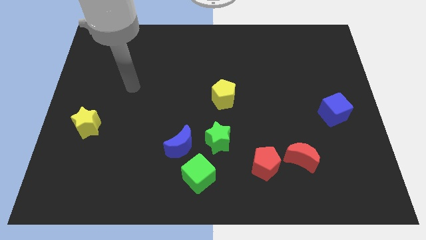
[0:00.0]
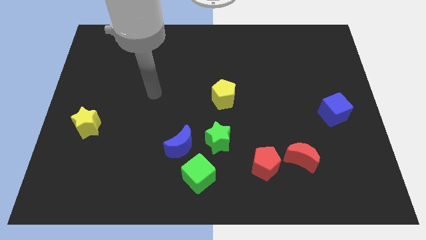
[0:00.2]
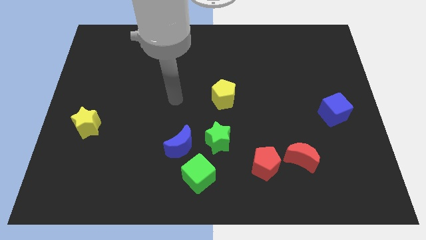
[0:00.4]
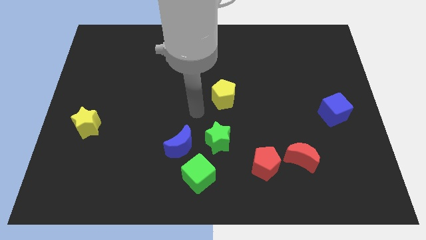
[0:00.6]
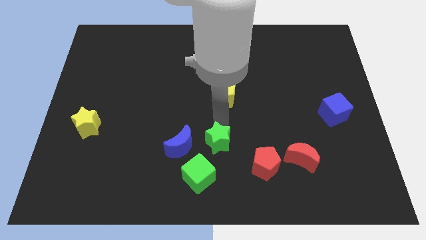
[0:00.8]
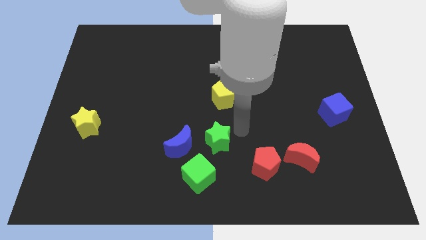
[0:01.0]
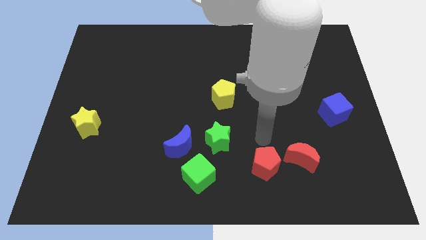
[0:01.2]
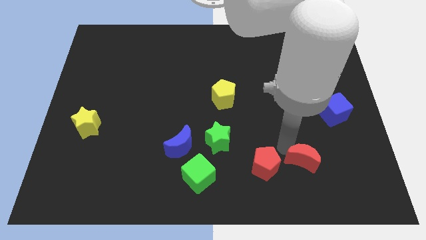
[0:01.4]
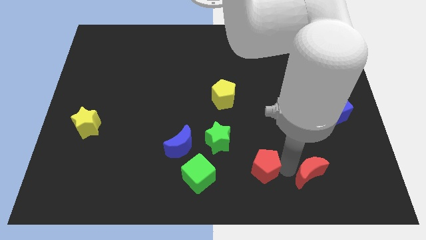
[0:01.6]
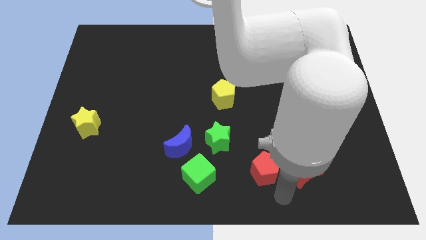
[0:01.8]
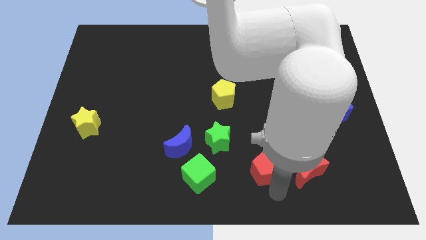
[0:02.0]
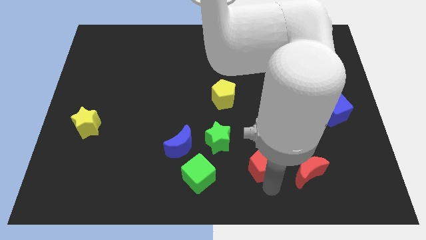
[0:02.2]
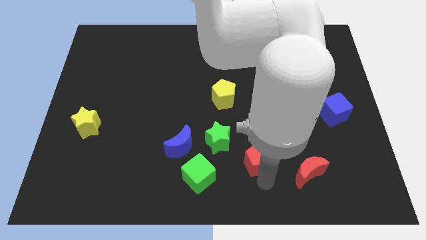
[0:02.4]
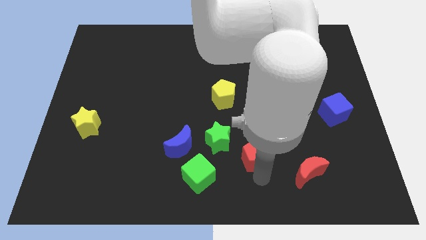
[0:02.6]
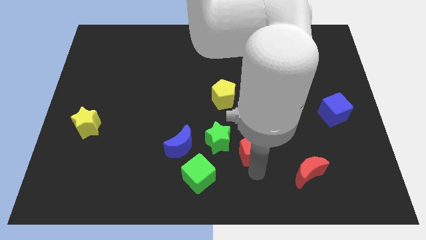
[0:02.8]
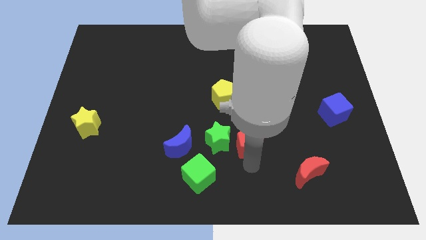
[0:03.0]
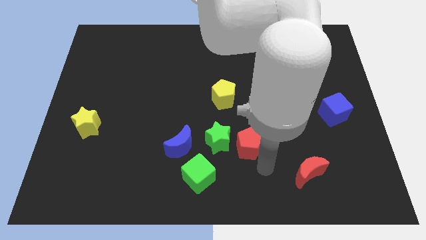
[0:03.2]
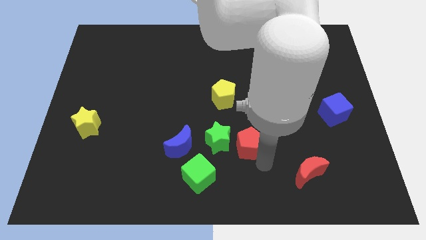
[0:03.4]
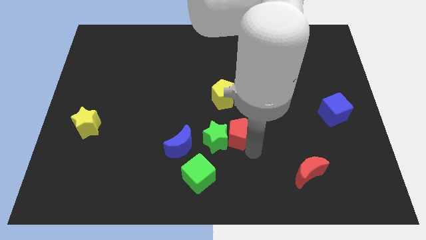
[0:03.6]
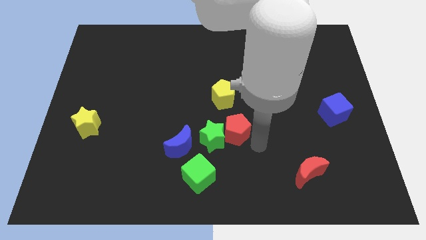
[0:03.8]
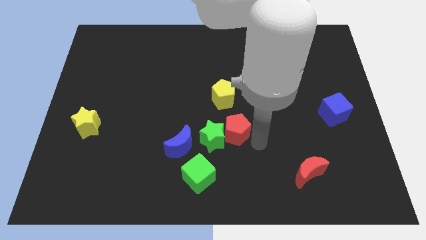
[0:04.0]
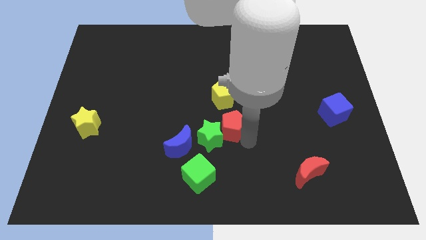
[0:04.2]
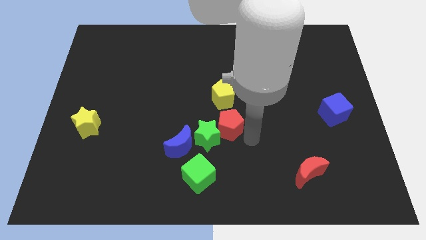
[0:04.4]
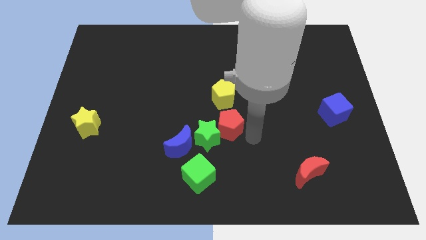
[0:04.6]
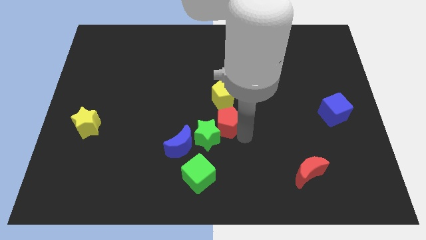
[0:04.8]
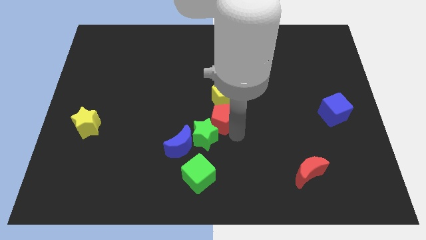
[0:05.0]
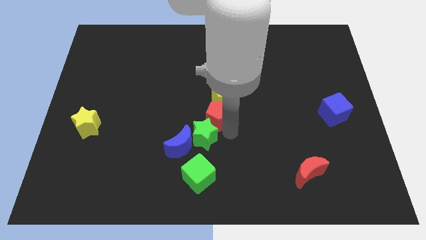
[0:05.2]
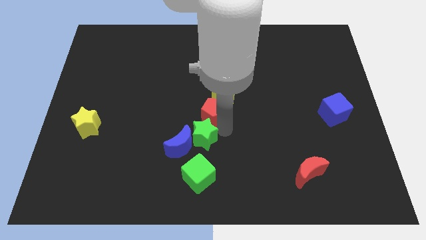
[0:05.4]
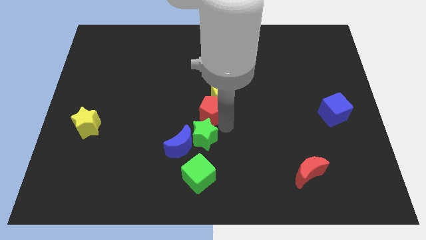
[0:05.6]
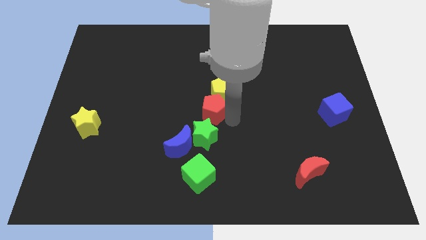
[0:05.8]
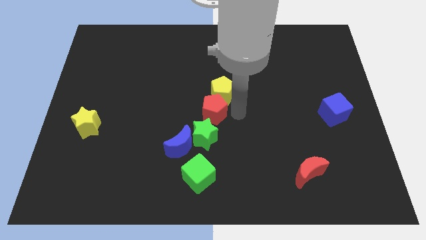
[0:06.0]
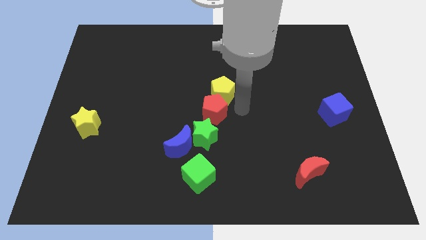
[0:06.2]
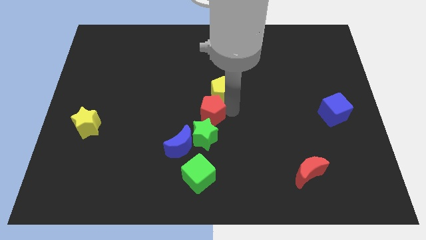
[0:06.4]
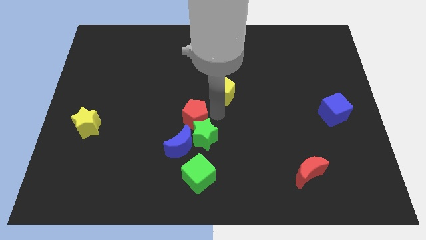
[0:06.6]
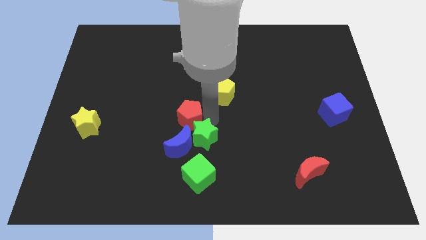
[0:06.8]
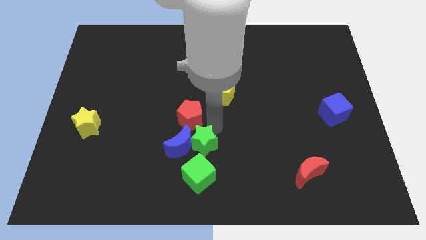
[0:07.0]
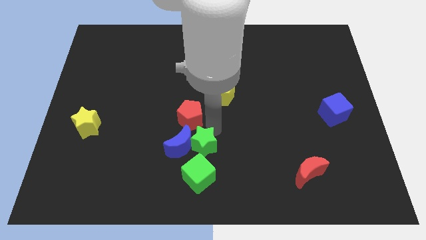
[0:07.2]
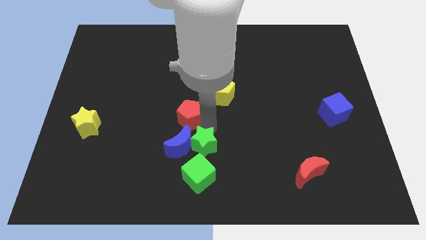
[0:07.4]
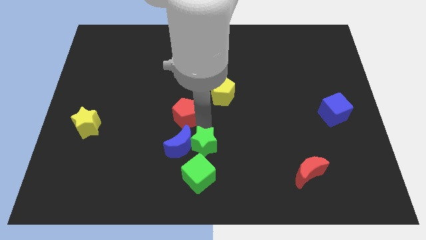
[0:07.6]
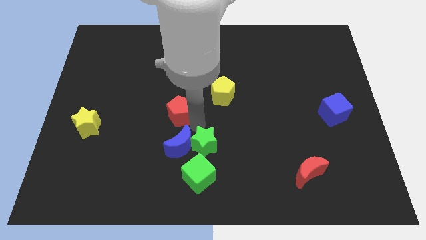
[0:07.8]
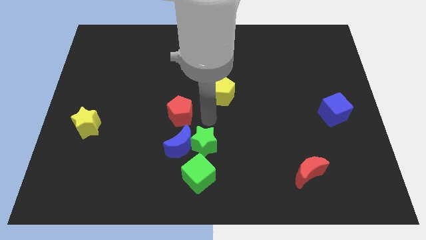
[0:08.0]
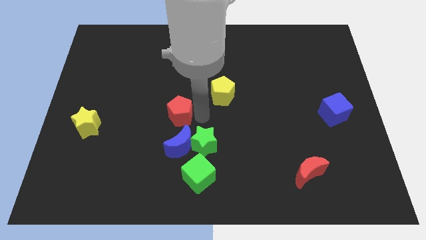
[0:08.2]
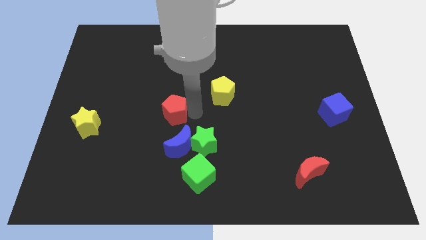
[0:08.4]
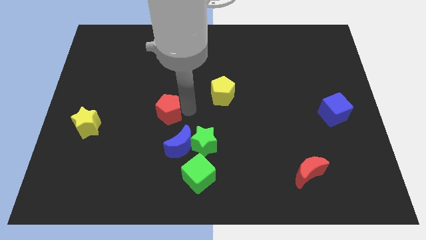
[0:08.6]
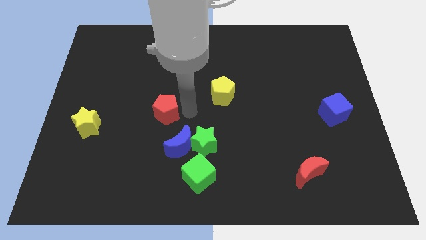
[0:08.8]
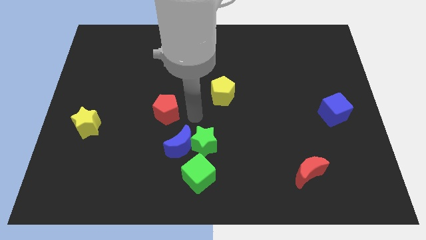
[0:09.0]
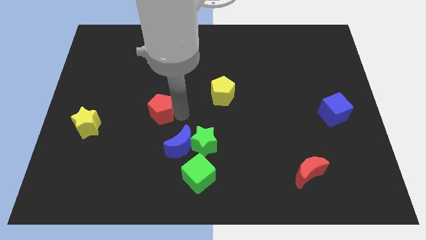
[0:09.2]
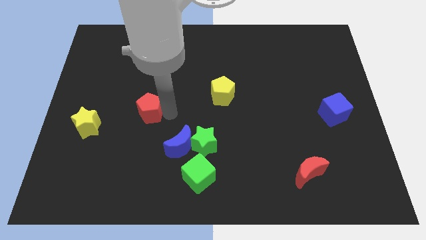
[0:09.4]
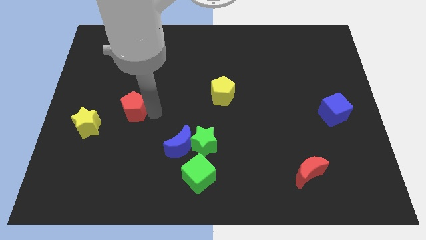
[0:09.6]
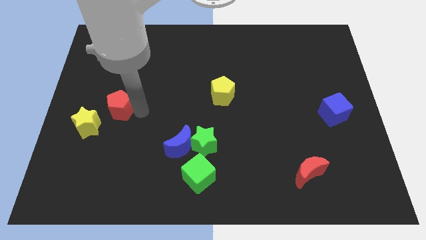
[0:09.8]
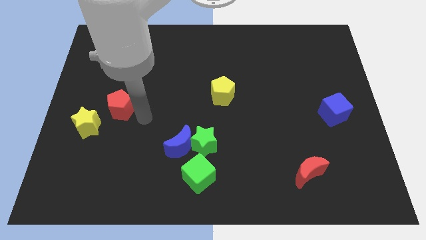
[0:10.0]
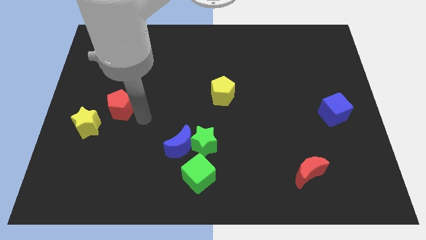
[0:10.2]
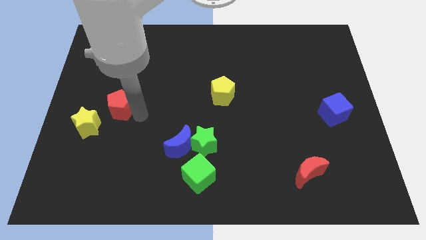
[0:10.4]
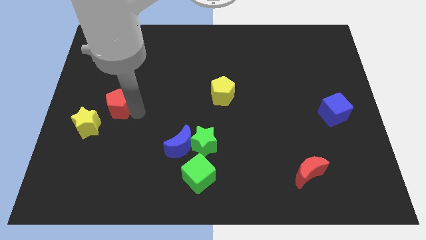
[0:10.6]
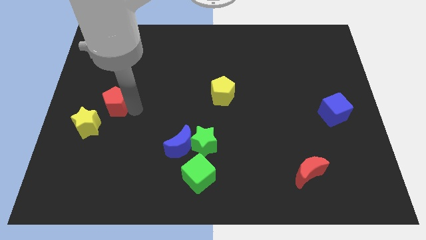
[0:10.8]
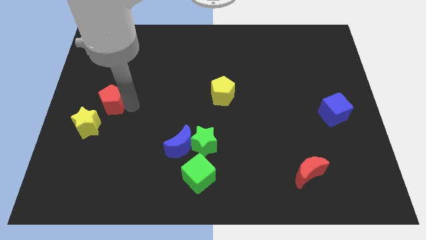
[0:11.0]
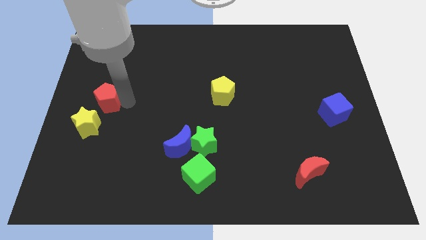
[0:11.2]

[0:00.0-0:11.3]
slide the red pentagon to the left side

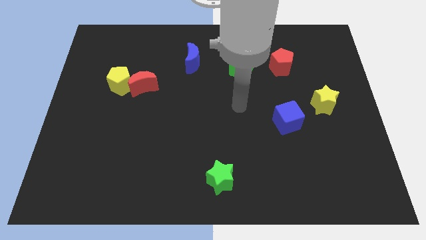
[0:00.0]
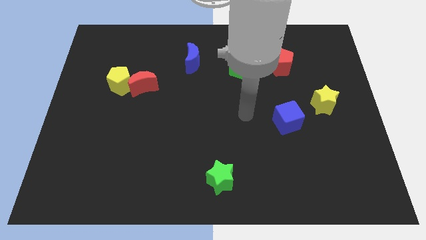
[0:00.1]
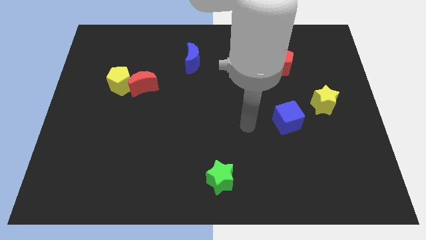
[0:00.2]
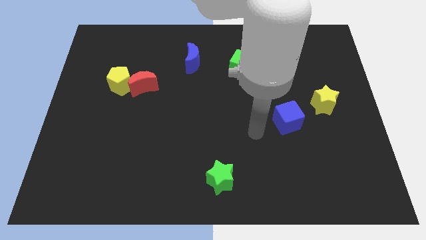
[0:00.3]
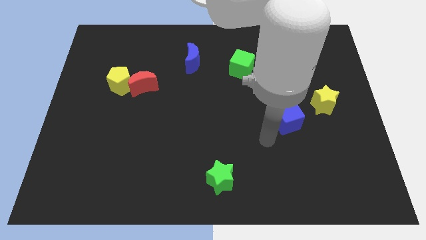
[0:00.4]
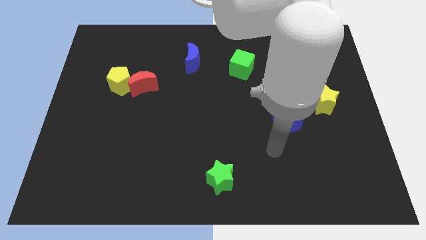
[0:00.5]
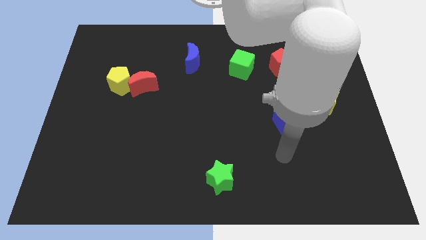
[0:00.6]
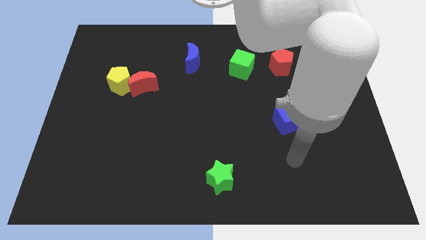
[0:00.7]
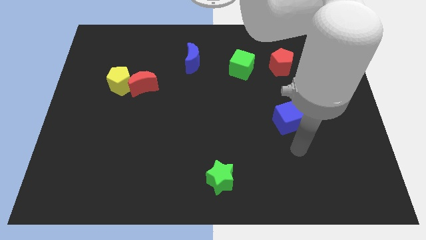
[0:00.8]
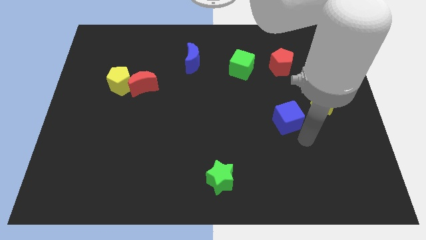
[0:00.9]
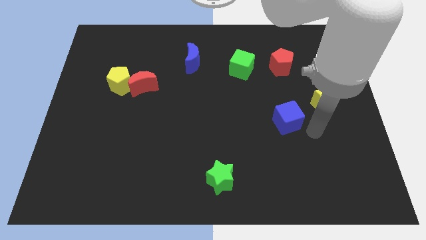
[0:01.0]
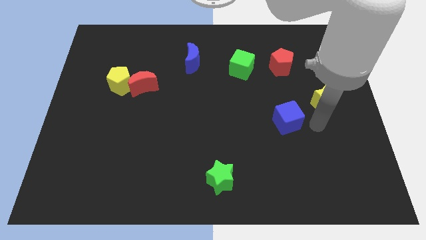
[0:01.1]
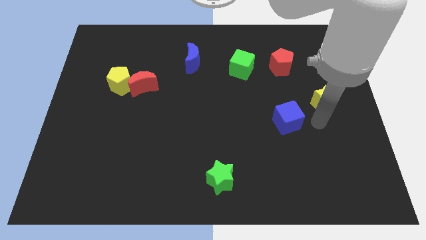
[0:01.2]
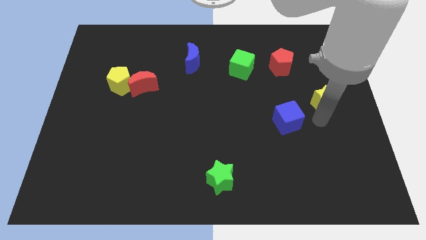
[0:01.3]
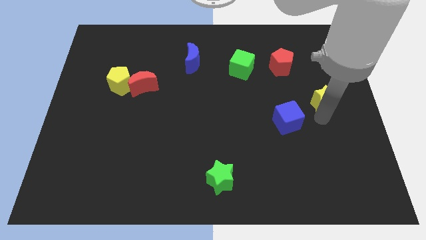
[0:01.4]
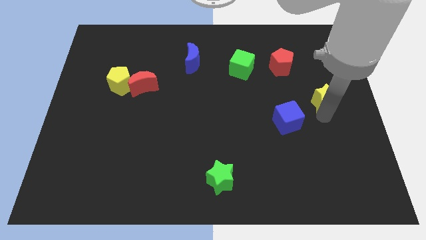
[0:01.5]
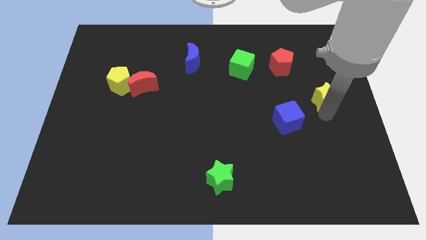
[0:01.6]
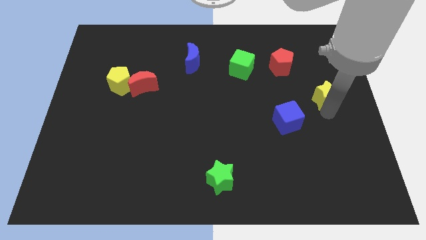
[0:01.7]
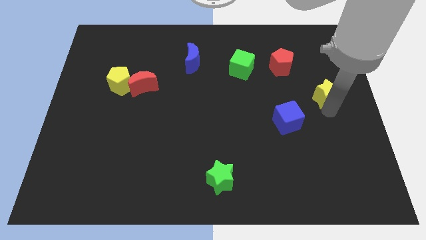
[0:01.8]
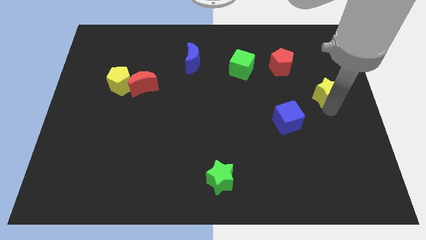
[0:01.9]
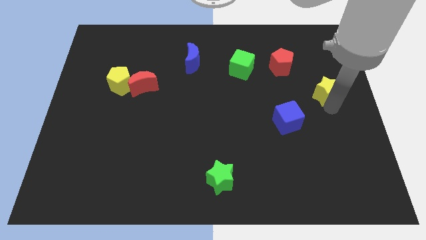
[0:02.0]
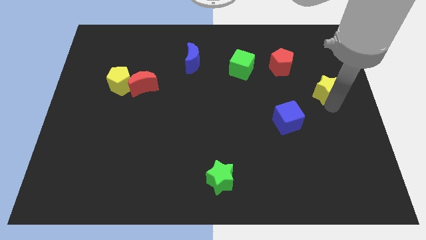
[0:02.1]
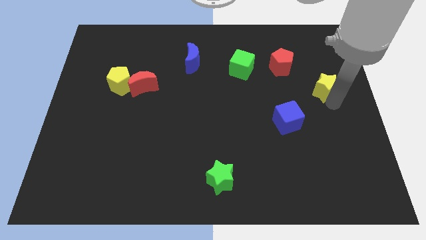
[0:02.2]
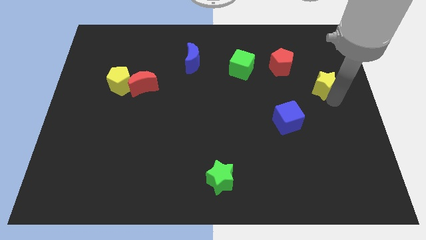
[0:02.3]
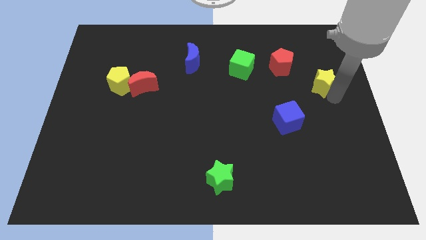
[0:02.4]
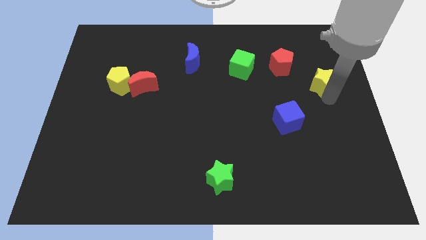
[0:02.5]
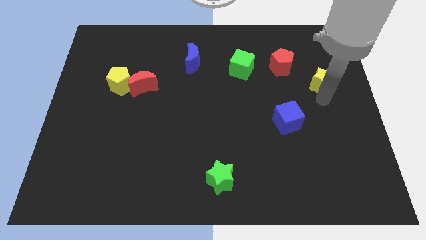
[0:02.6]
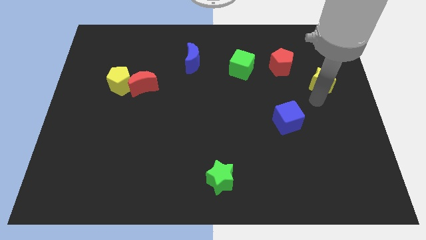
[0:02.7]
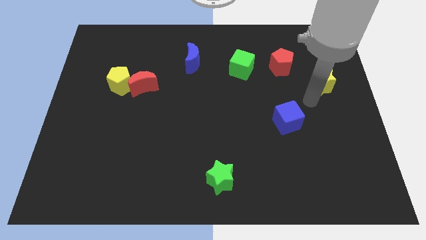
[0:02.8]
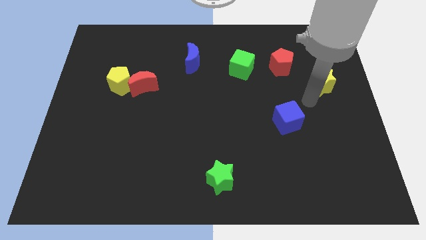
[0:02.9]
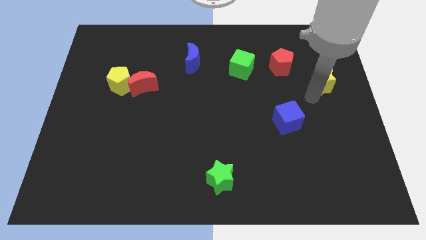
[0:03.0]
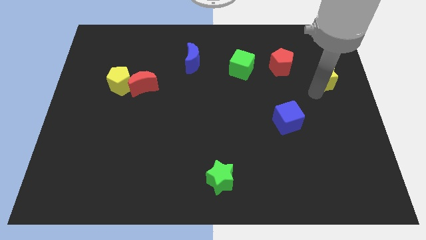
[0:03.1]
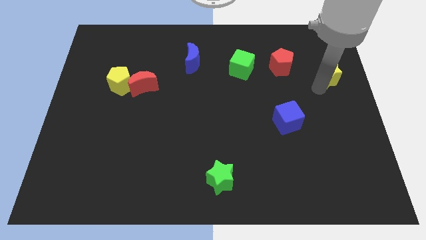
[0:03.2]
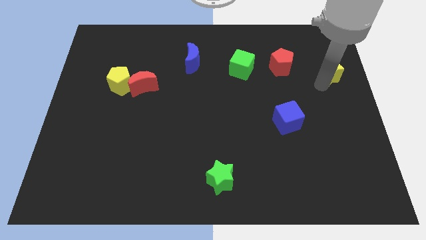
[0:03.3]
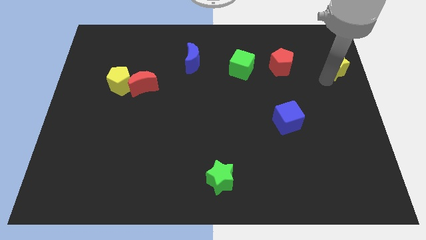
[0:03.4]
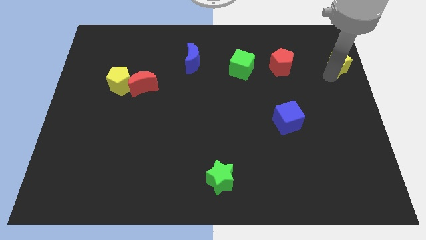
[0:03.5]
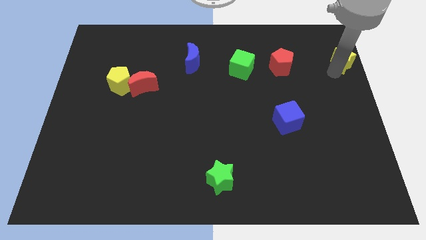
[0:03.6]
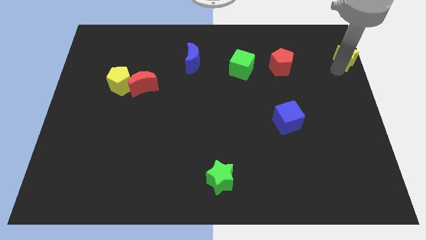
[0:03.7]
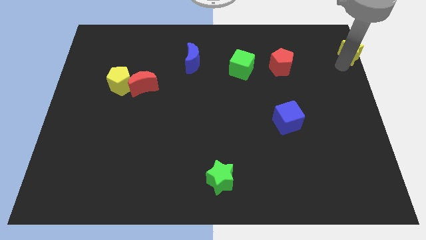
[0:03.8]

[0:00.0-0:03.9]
put the yellow star to the upper right corner
